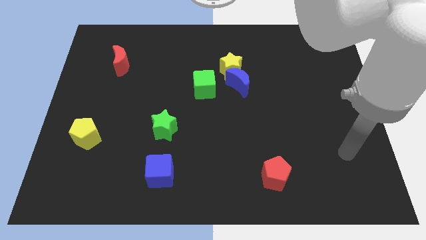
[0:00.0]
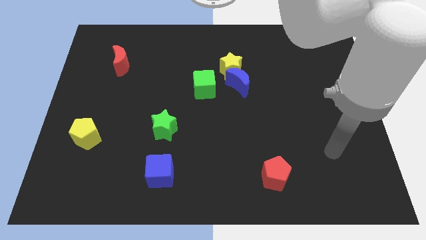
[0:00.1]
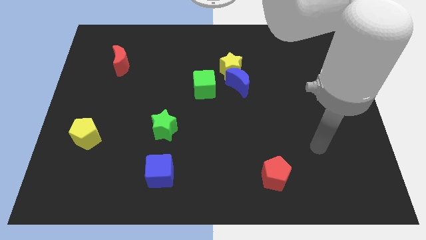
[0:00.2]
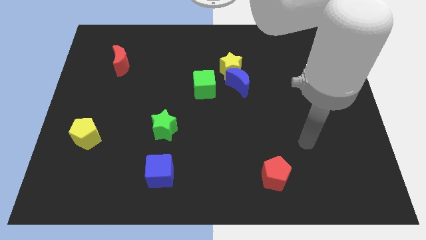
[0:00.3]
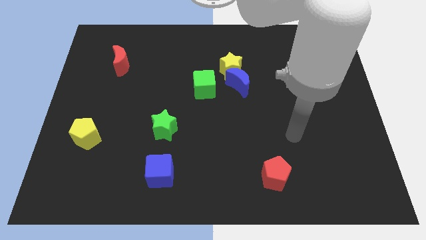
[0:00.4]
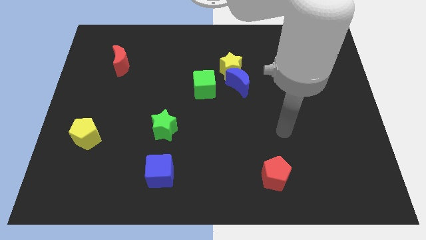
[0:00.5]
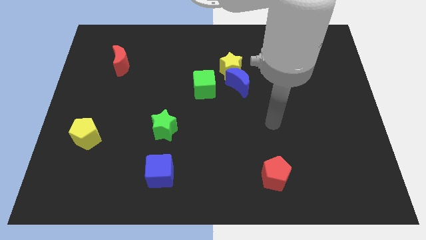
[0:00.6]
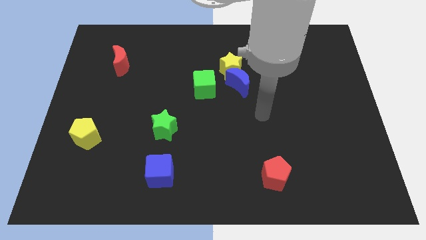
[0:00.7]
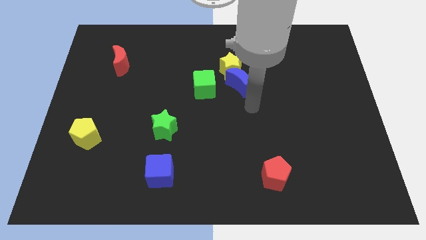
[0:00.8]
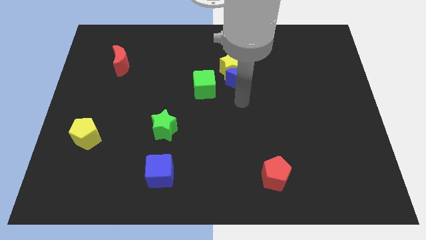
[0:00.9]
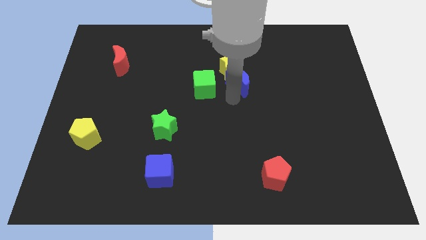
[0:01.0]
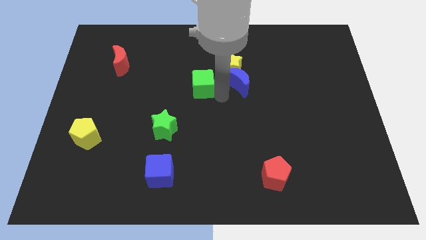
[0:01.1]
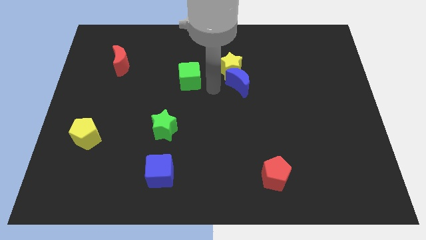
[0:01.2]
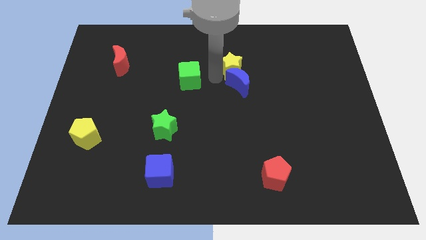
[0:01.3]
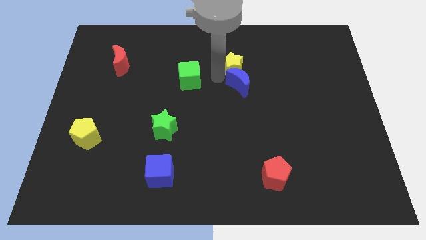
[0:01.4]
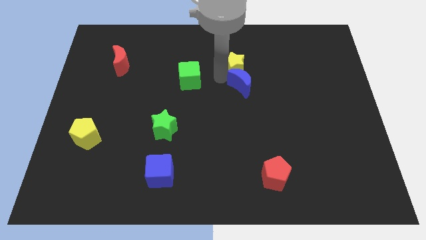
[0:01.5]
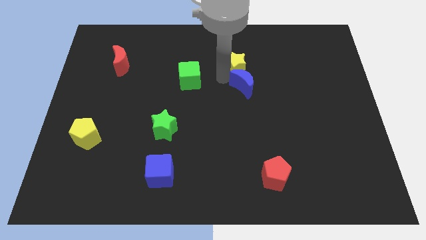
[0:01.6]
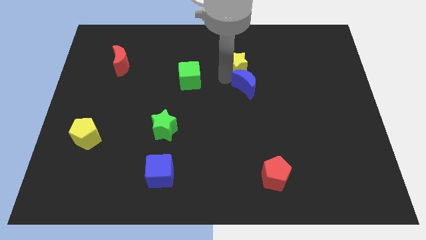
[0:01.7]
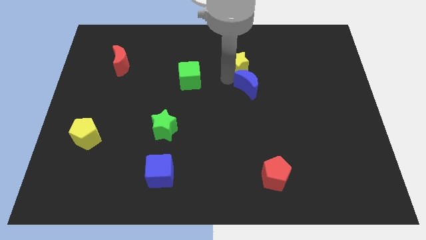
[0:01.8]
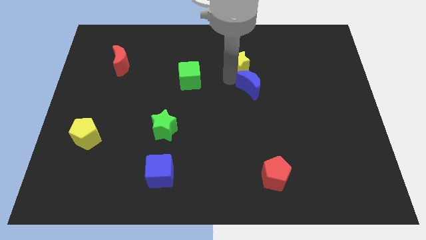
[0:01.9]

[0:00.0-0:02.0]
move the blue moon away from the yellow star and green cube

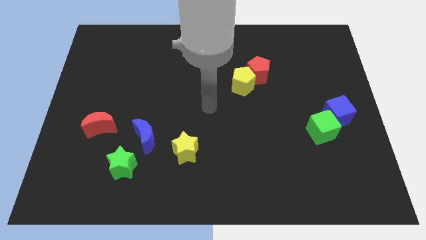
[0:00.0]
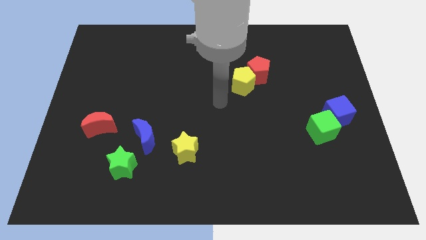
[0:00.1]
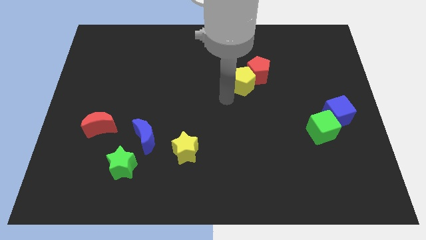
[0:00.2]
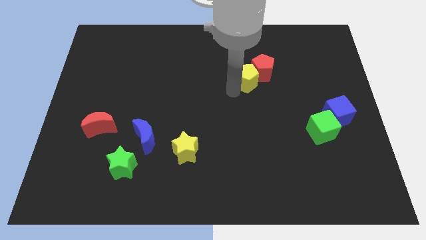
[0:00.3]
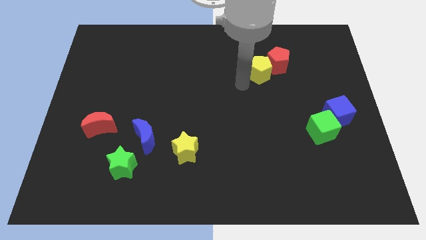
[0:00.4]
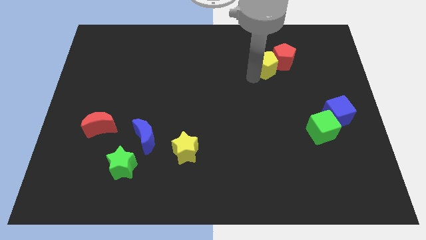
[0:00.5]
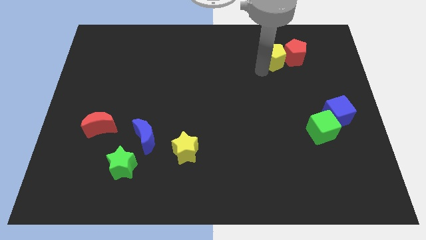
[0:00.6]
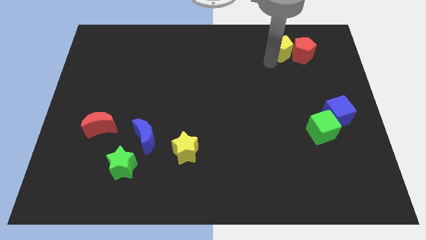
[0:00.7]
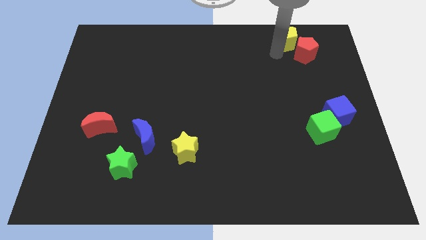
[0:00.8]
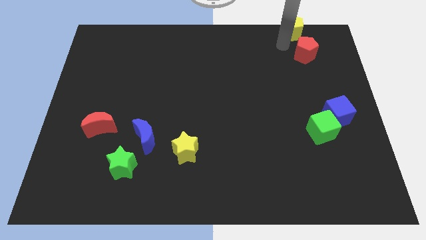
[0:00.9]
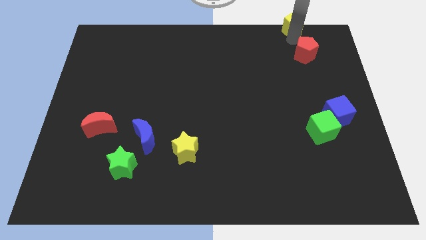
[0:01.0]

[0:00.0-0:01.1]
pull the red pentagon apart from the yellow pentagon

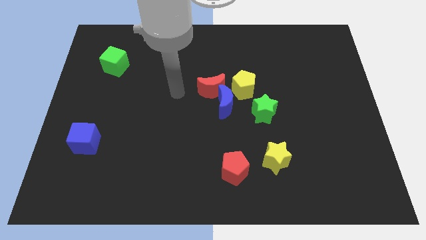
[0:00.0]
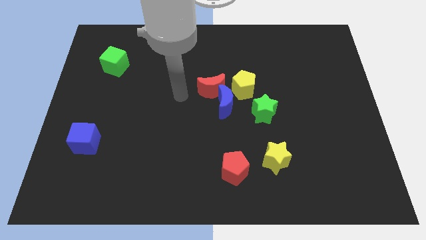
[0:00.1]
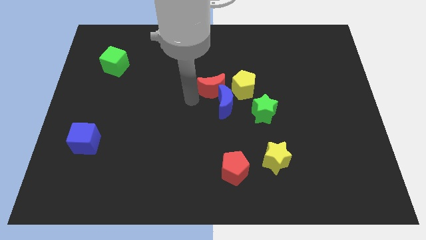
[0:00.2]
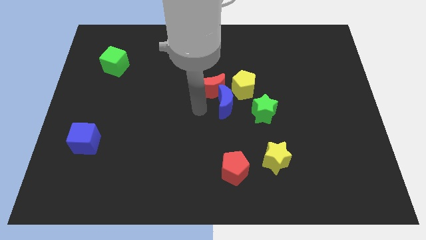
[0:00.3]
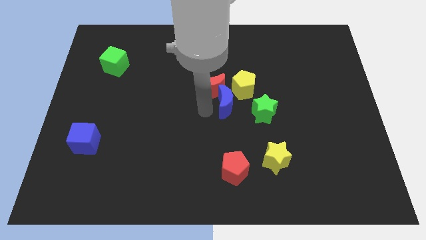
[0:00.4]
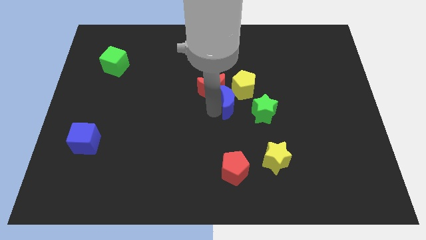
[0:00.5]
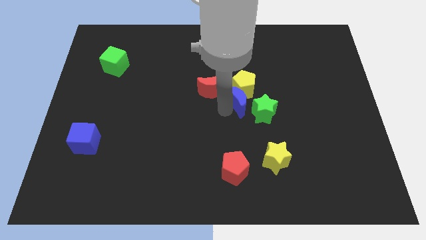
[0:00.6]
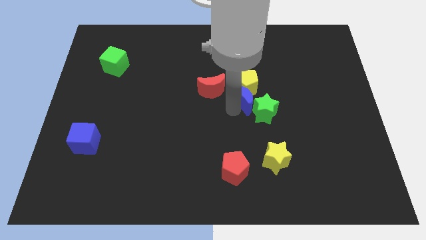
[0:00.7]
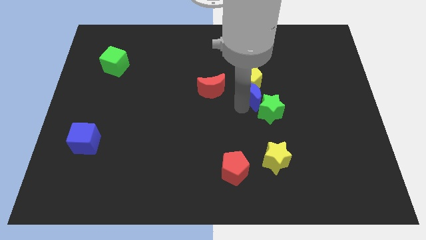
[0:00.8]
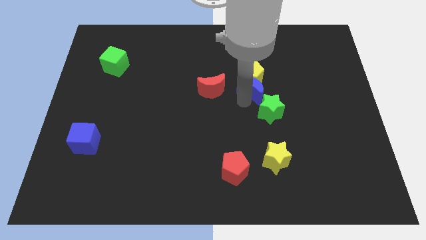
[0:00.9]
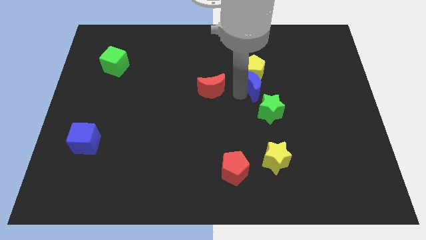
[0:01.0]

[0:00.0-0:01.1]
move the red moon away from the blue moon and yellow pentagon

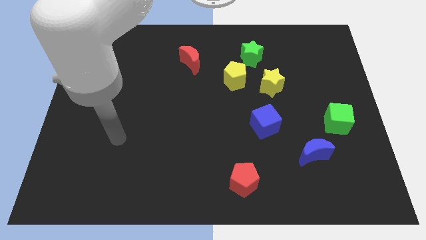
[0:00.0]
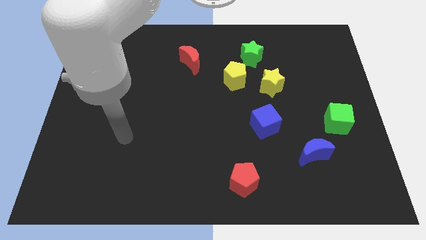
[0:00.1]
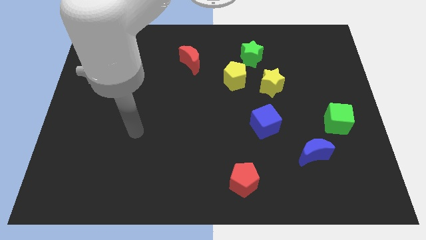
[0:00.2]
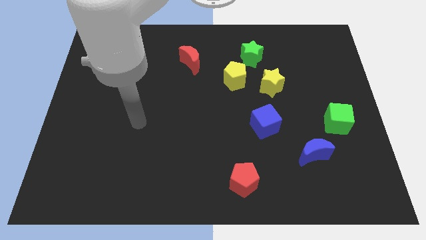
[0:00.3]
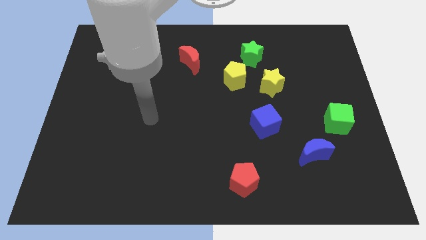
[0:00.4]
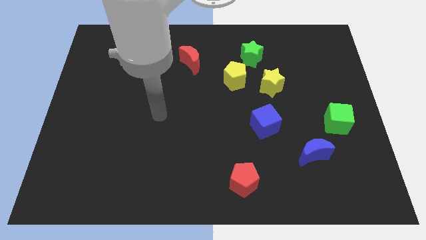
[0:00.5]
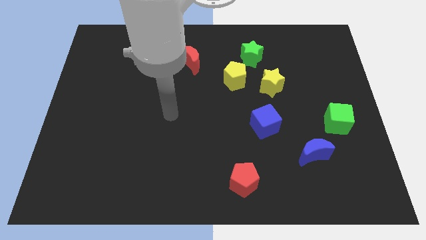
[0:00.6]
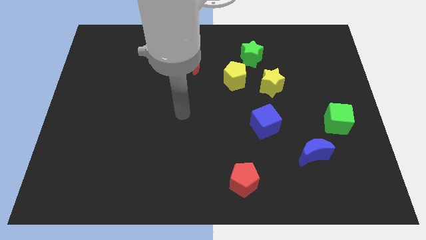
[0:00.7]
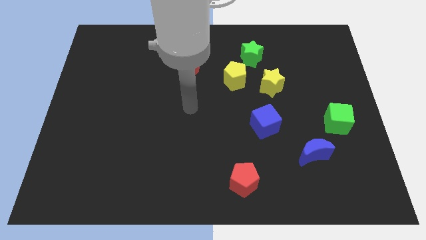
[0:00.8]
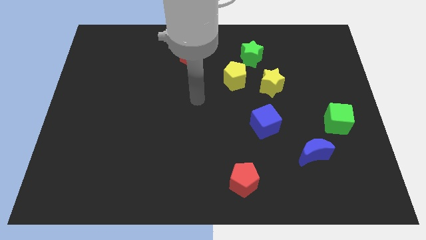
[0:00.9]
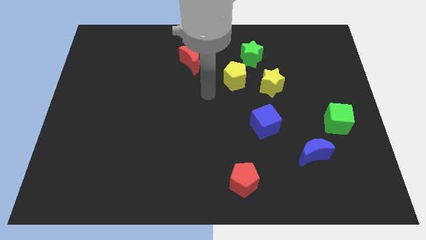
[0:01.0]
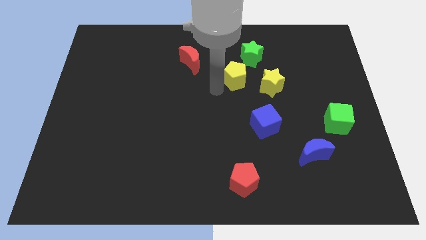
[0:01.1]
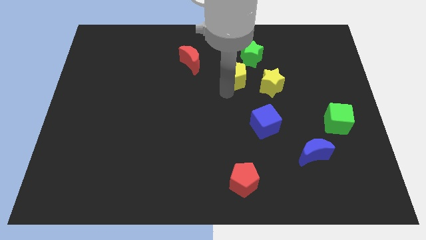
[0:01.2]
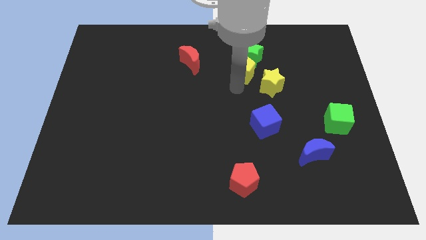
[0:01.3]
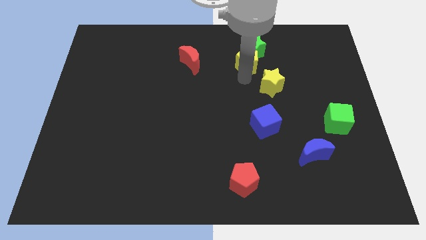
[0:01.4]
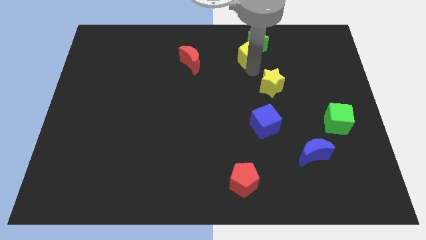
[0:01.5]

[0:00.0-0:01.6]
separate the yellow star from the yellow pentagon

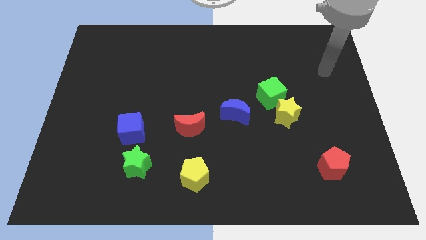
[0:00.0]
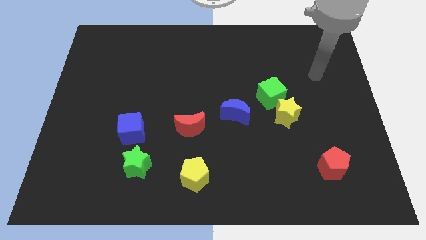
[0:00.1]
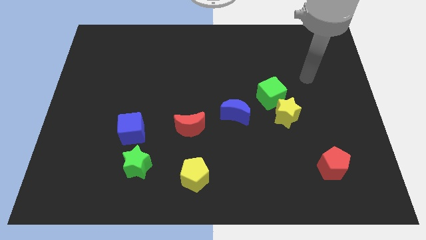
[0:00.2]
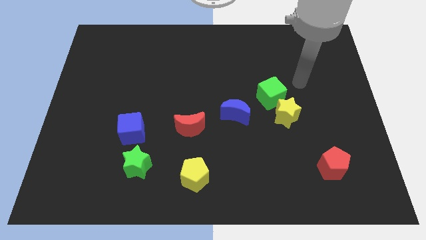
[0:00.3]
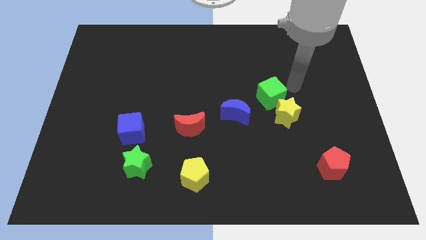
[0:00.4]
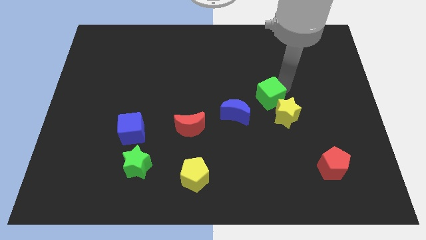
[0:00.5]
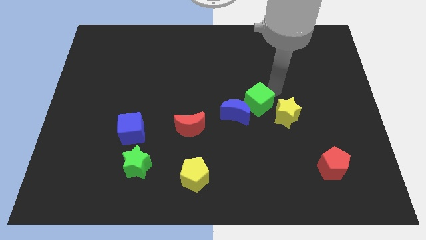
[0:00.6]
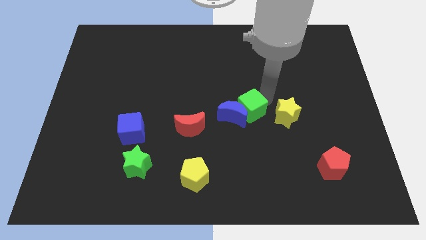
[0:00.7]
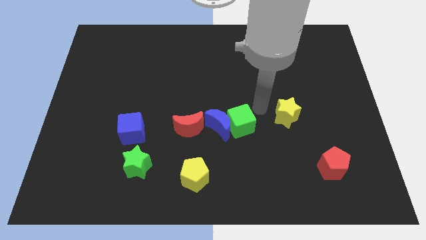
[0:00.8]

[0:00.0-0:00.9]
move the yellow star away from the green cube

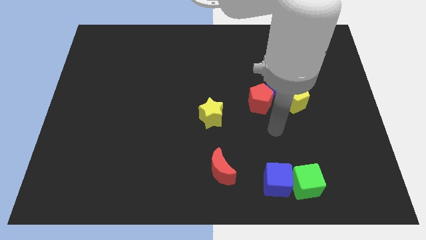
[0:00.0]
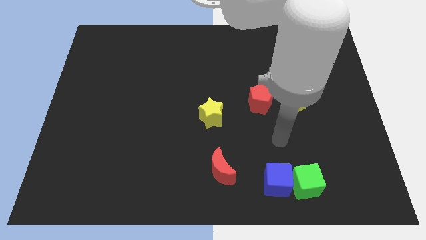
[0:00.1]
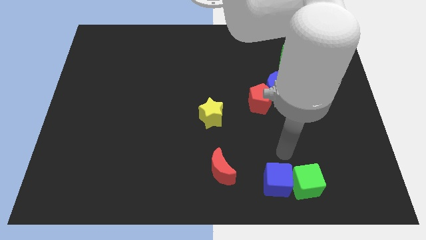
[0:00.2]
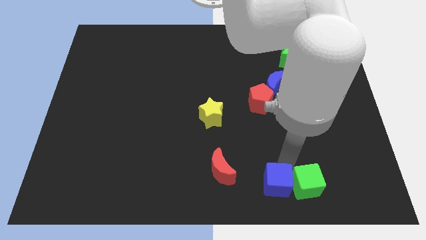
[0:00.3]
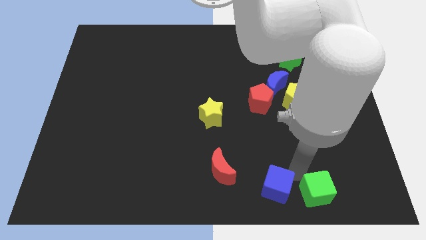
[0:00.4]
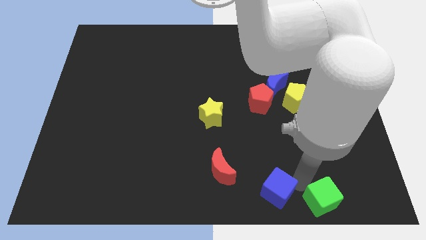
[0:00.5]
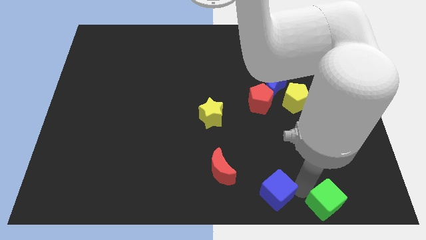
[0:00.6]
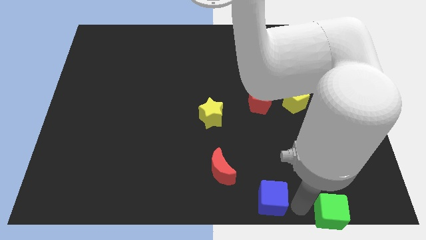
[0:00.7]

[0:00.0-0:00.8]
separate the blue cube from the green cube

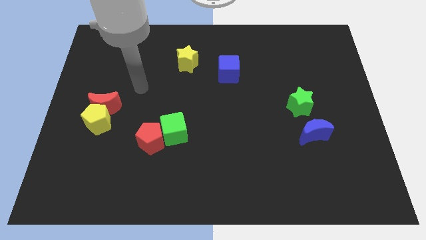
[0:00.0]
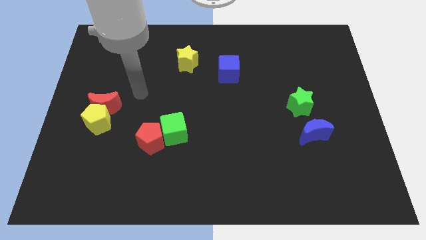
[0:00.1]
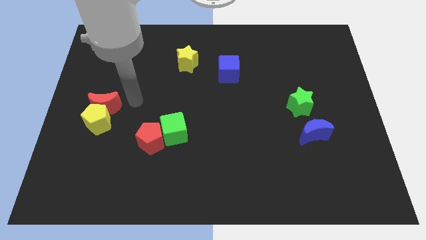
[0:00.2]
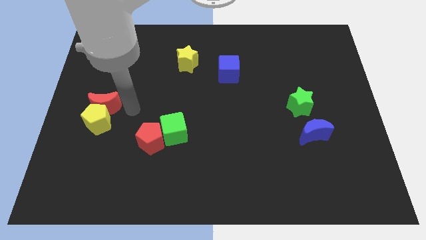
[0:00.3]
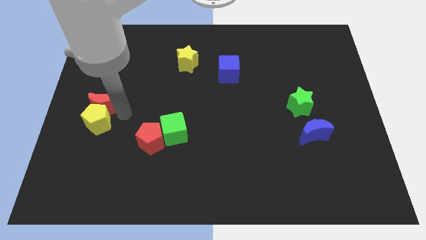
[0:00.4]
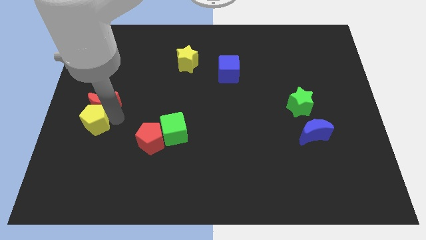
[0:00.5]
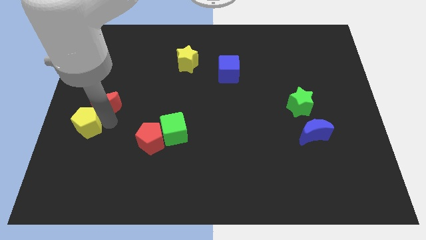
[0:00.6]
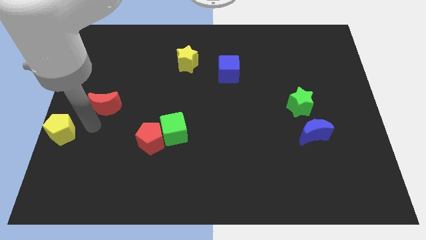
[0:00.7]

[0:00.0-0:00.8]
pull the red moon apart from the yellow pentagon

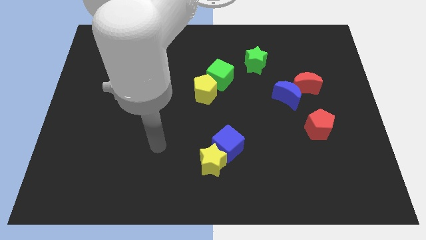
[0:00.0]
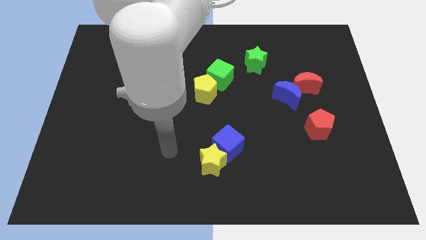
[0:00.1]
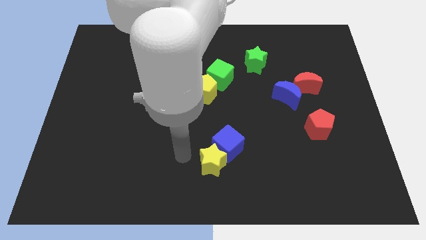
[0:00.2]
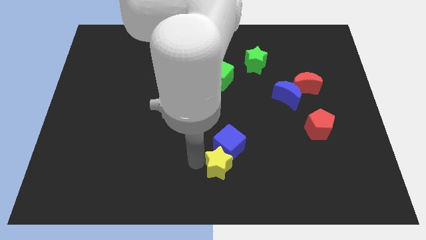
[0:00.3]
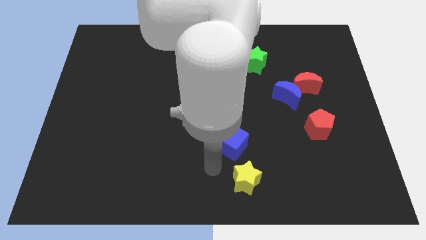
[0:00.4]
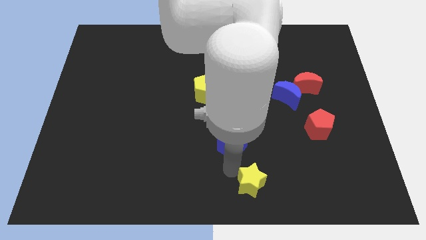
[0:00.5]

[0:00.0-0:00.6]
move the blue cube away from the yellow star

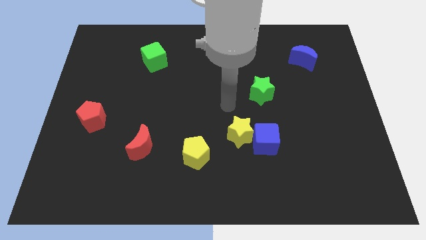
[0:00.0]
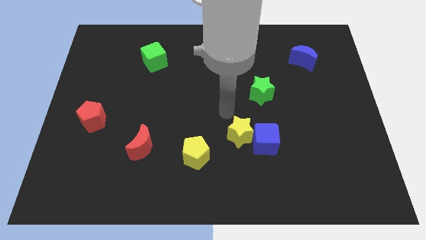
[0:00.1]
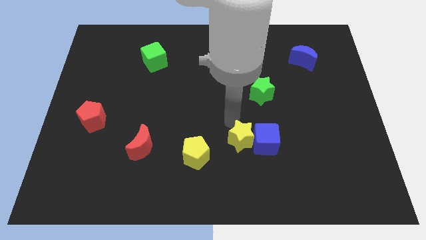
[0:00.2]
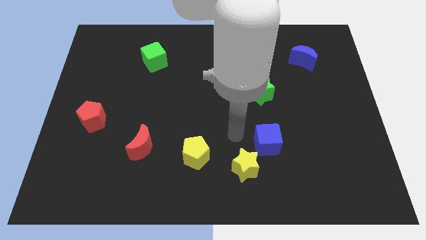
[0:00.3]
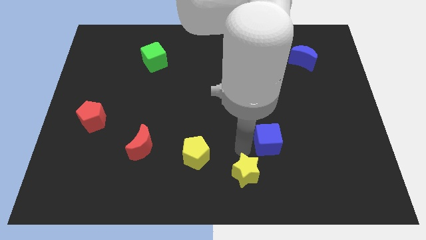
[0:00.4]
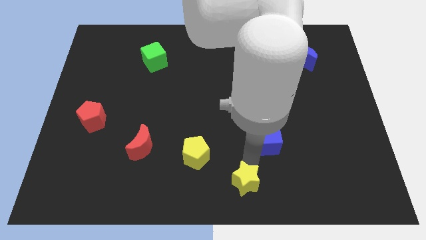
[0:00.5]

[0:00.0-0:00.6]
pull the blue cube apart from the yellow star
